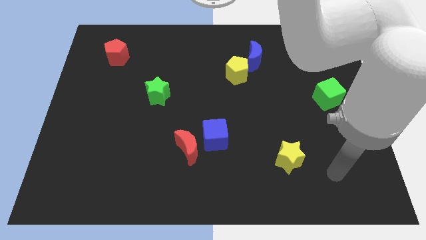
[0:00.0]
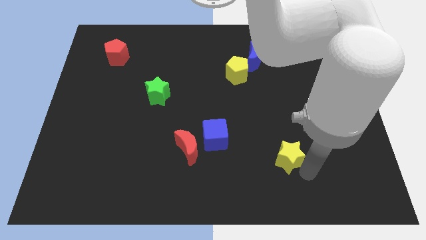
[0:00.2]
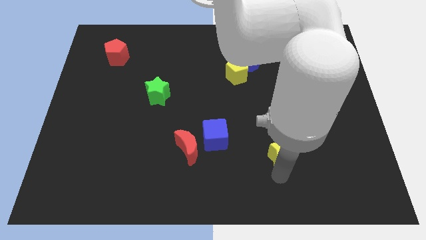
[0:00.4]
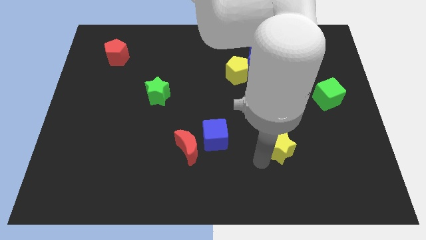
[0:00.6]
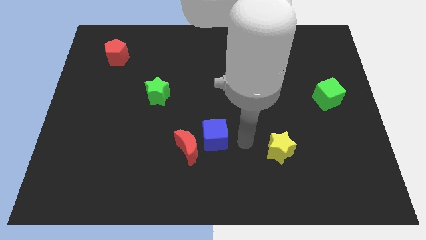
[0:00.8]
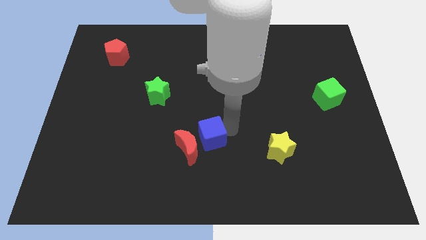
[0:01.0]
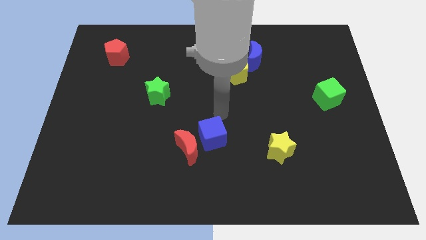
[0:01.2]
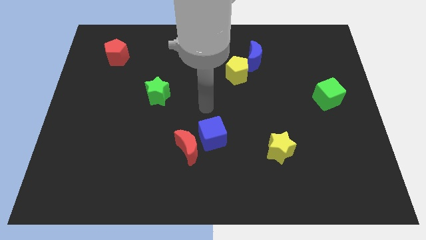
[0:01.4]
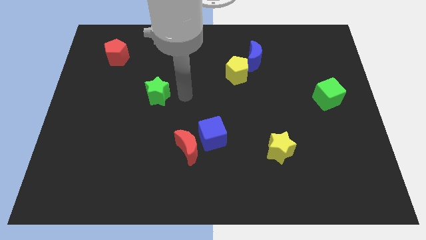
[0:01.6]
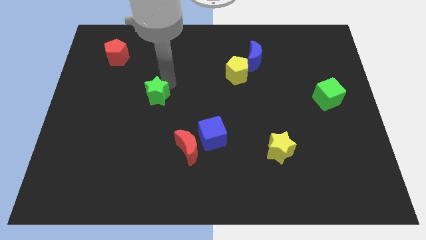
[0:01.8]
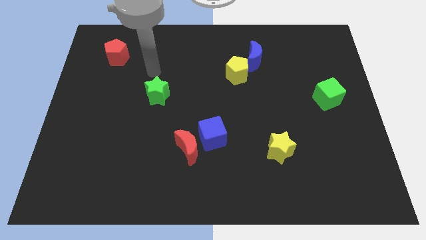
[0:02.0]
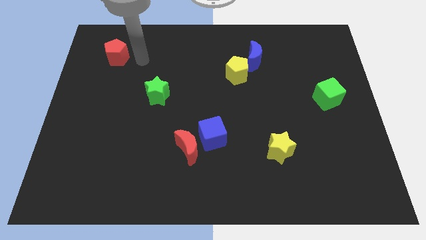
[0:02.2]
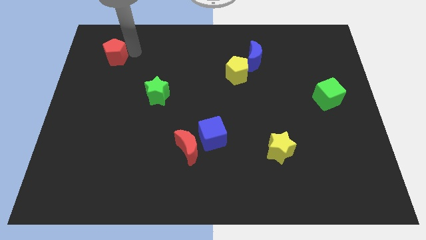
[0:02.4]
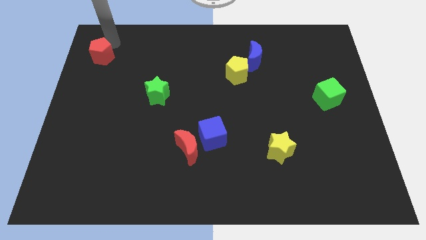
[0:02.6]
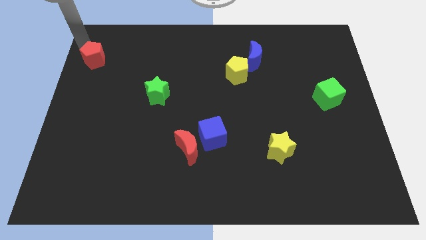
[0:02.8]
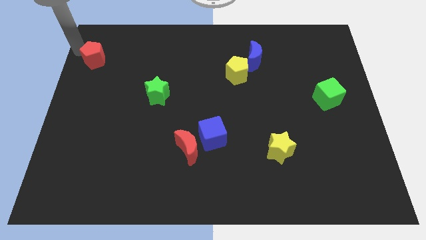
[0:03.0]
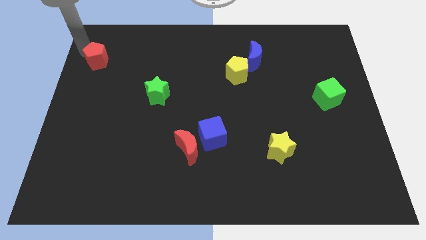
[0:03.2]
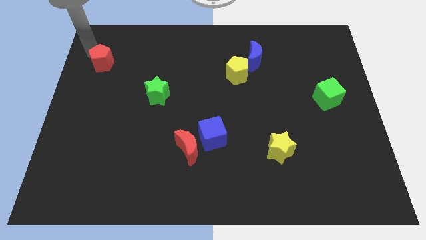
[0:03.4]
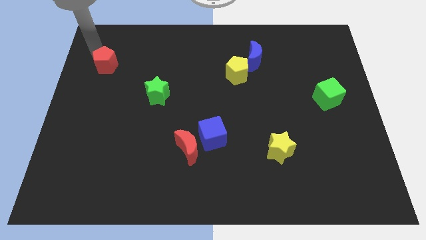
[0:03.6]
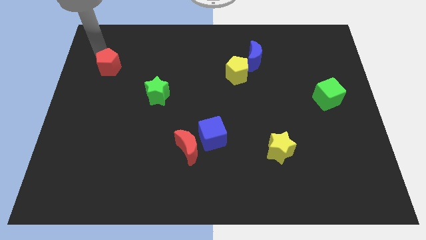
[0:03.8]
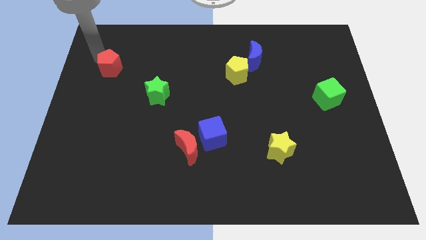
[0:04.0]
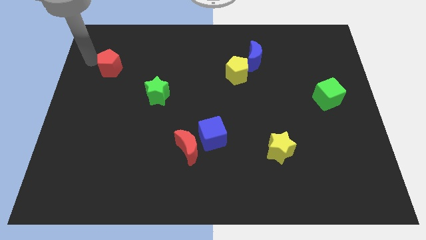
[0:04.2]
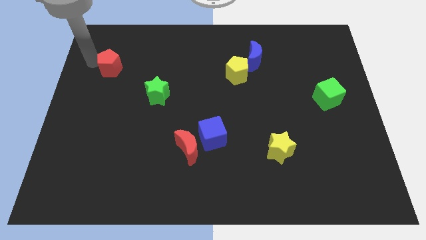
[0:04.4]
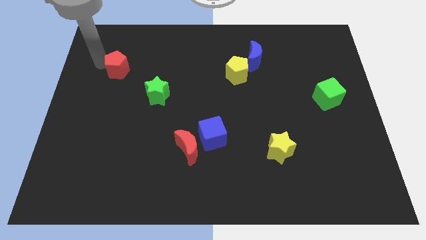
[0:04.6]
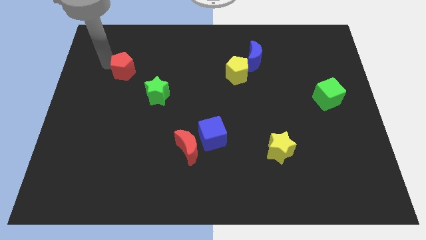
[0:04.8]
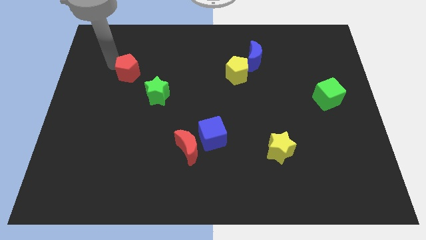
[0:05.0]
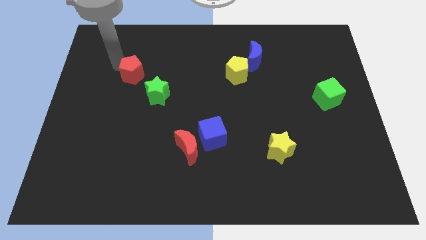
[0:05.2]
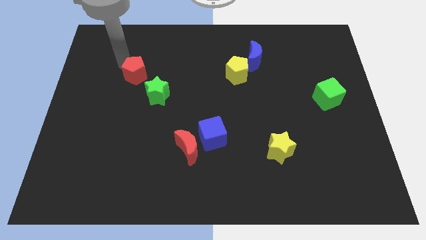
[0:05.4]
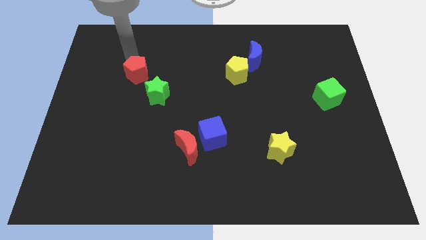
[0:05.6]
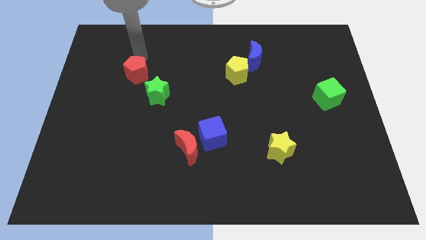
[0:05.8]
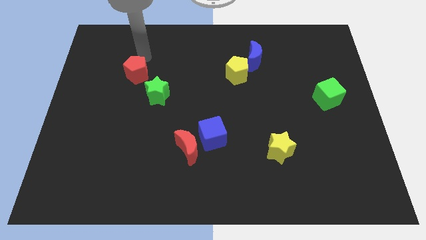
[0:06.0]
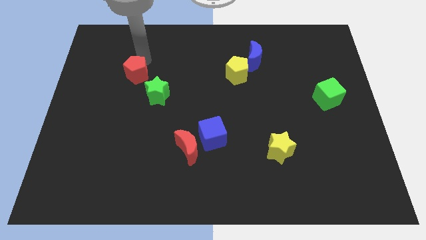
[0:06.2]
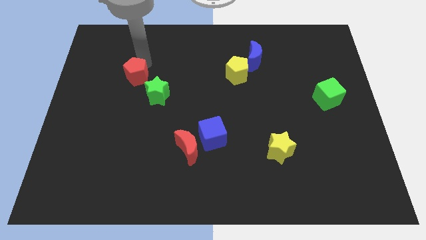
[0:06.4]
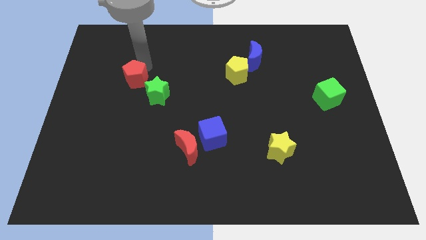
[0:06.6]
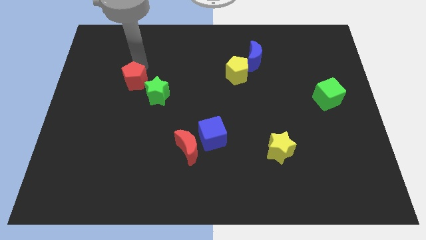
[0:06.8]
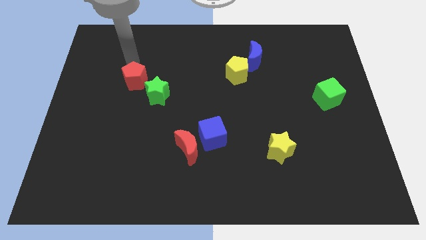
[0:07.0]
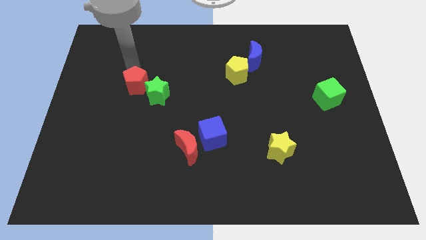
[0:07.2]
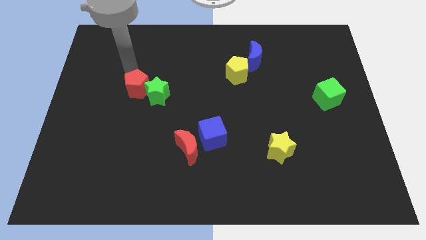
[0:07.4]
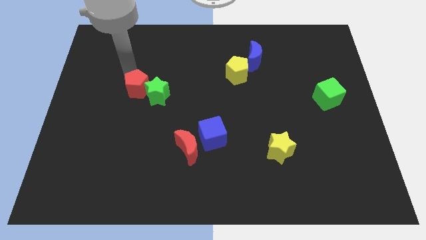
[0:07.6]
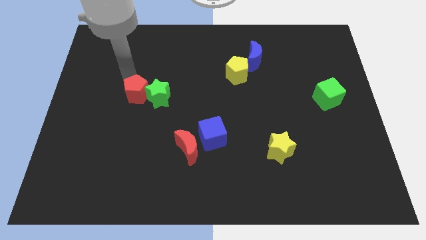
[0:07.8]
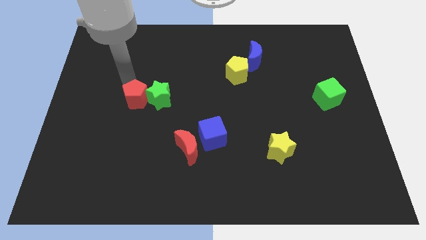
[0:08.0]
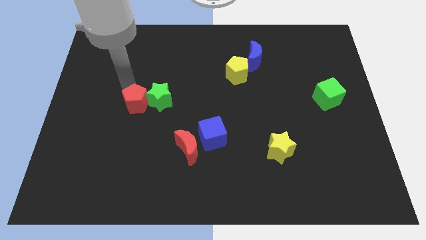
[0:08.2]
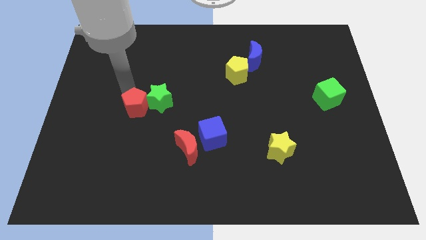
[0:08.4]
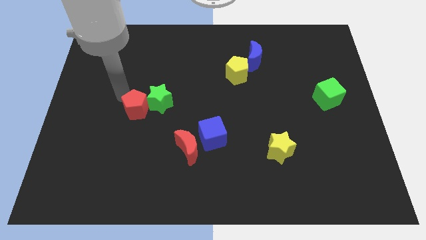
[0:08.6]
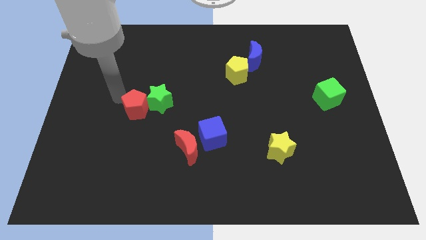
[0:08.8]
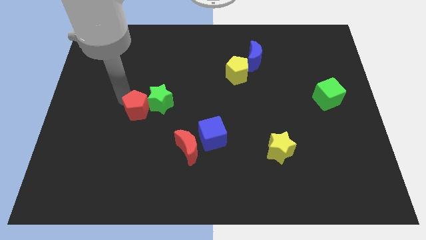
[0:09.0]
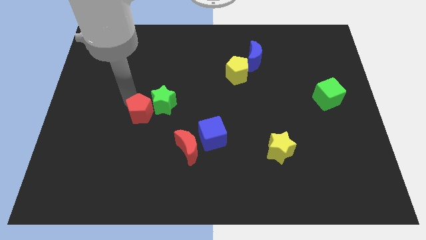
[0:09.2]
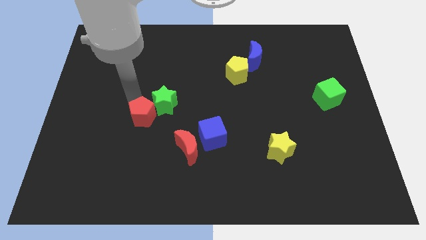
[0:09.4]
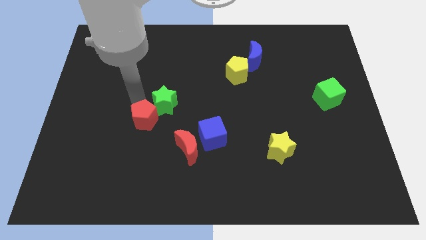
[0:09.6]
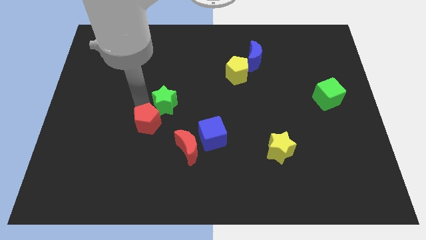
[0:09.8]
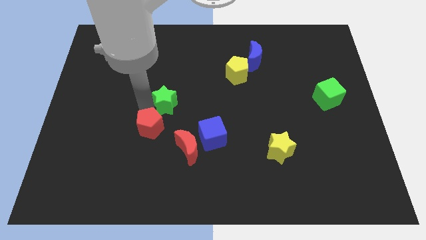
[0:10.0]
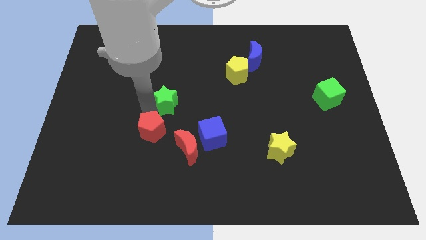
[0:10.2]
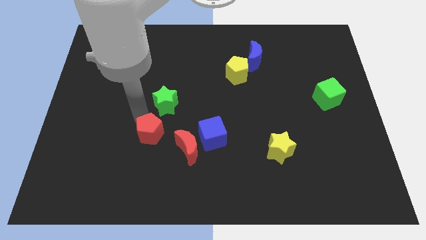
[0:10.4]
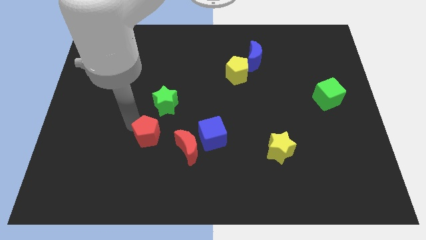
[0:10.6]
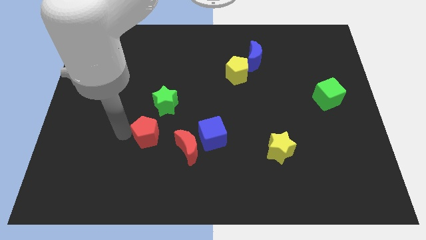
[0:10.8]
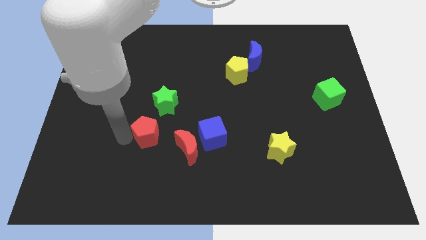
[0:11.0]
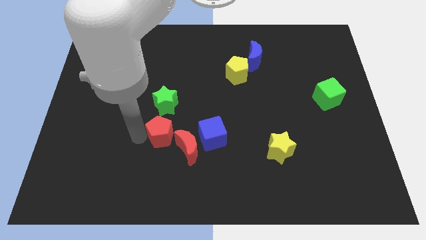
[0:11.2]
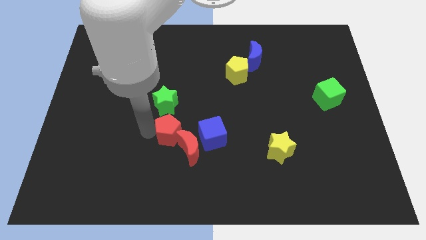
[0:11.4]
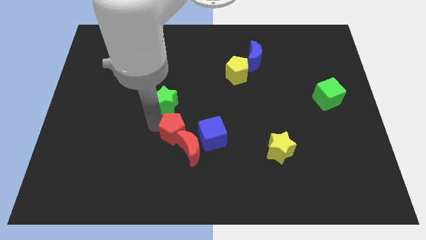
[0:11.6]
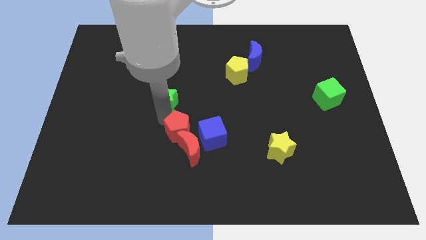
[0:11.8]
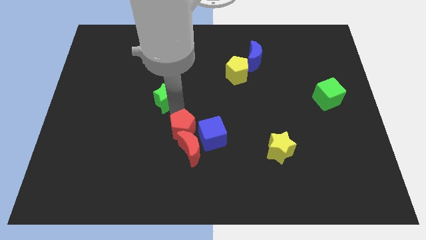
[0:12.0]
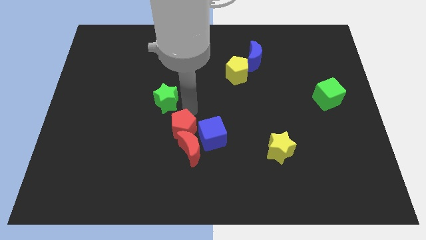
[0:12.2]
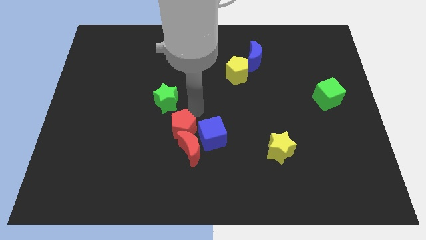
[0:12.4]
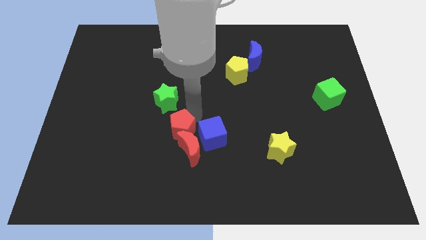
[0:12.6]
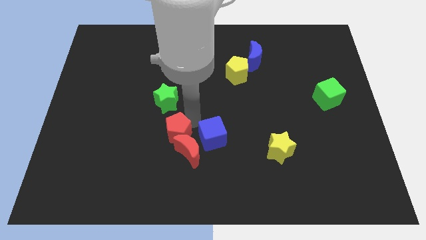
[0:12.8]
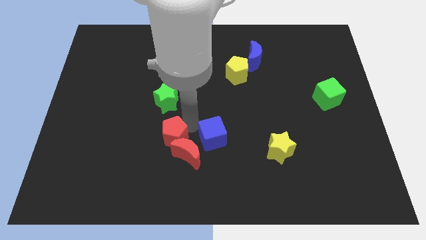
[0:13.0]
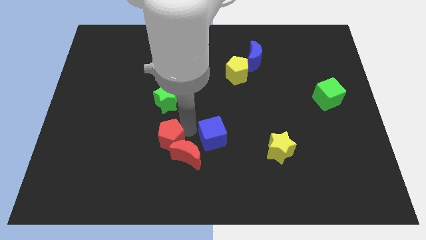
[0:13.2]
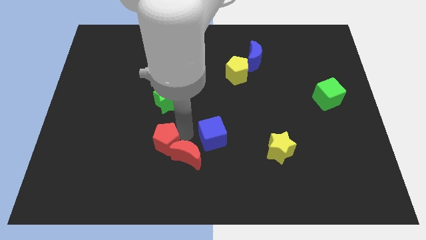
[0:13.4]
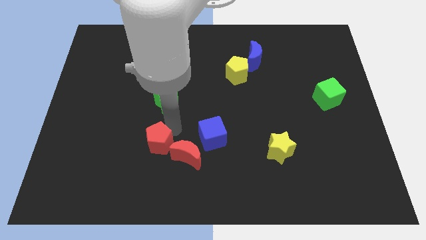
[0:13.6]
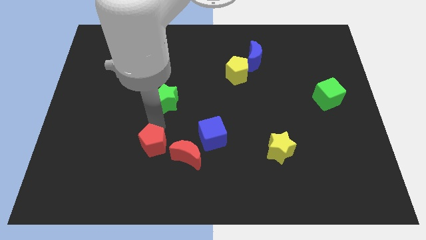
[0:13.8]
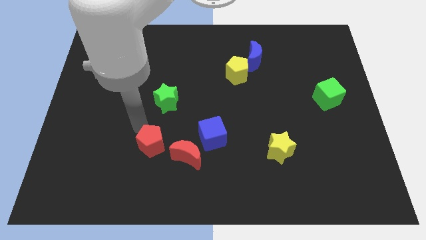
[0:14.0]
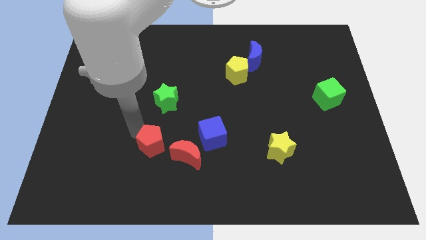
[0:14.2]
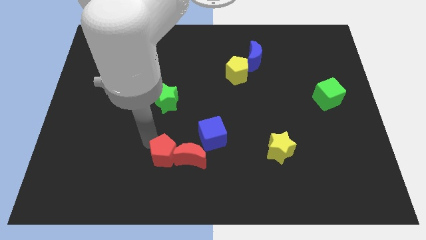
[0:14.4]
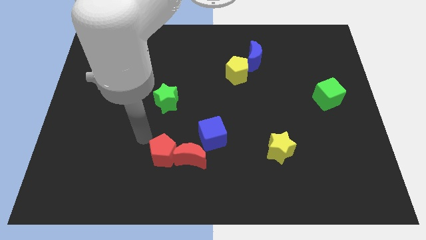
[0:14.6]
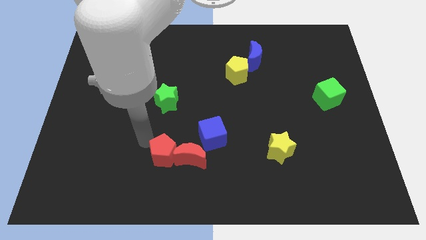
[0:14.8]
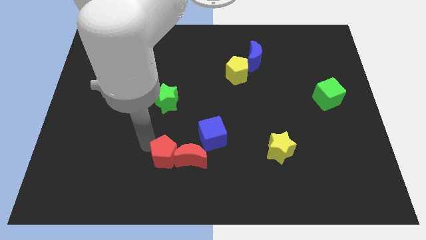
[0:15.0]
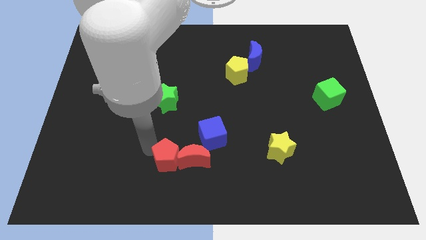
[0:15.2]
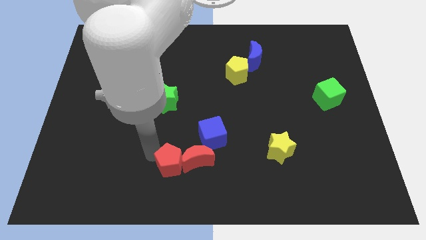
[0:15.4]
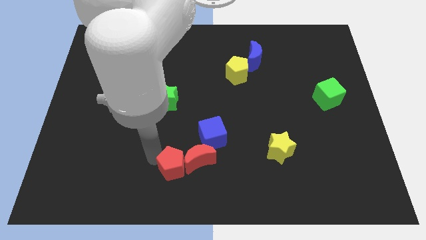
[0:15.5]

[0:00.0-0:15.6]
put the red pentagon to the bottom side
